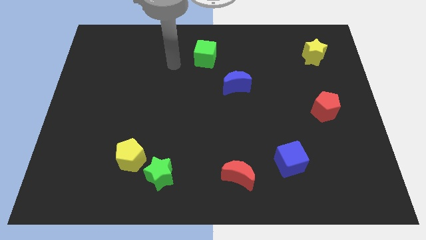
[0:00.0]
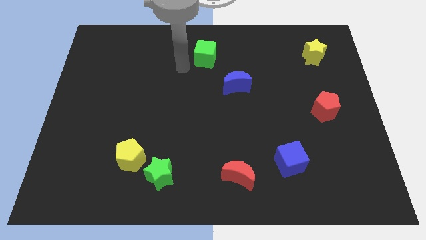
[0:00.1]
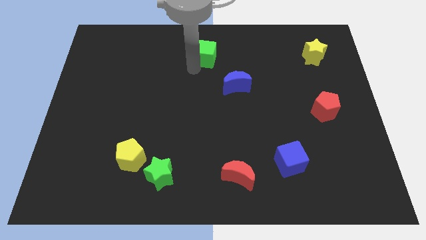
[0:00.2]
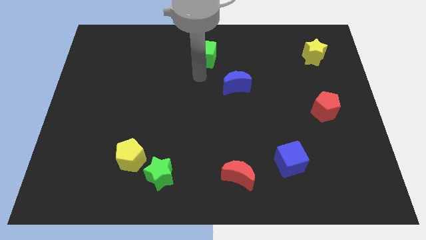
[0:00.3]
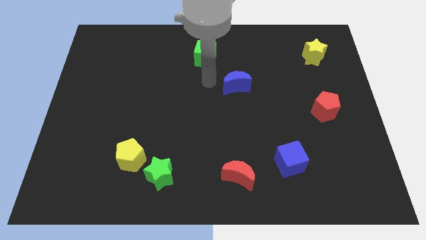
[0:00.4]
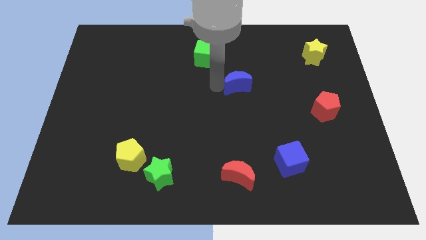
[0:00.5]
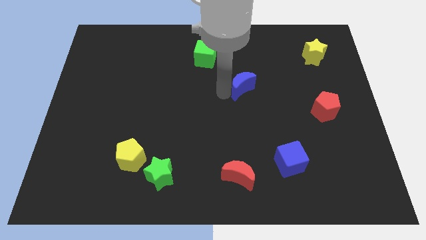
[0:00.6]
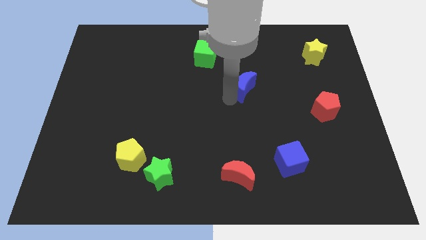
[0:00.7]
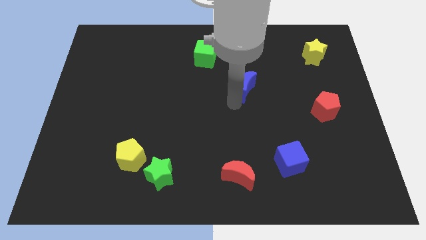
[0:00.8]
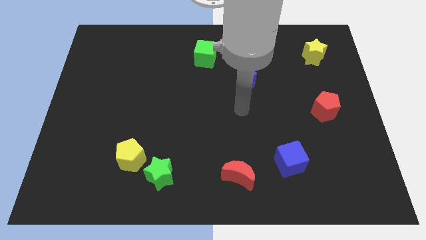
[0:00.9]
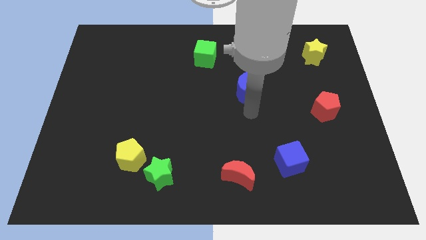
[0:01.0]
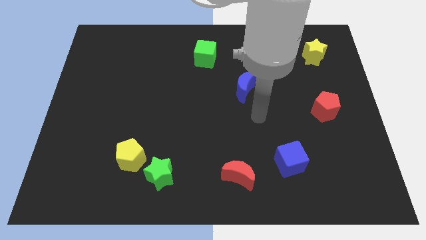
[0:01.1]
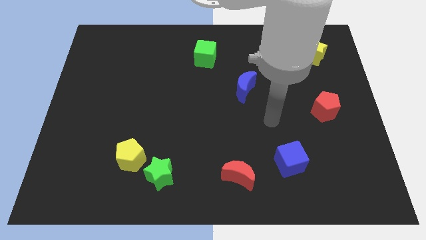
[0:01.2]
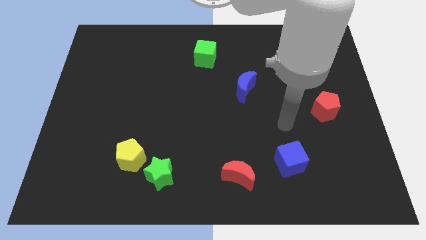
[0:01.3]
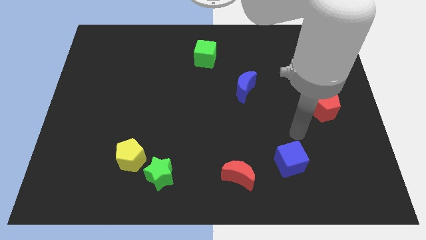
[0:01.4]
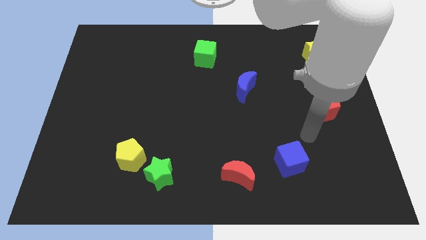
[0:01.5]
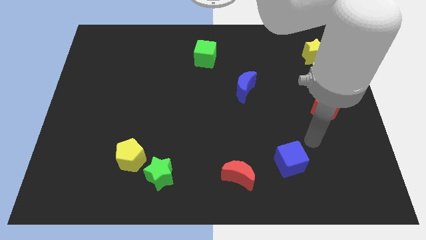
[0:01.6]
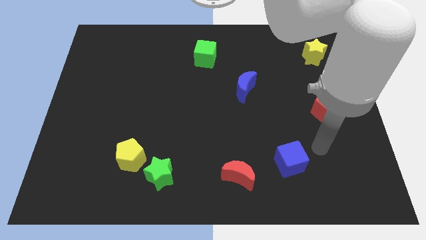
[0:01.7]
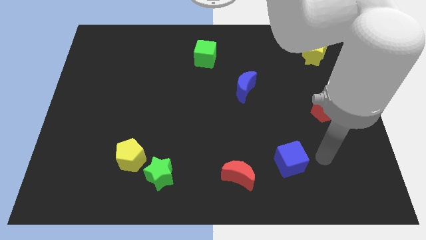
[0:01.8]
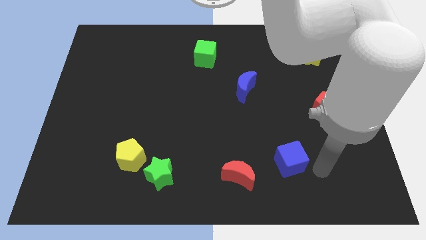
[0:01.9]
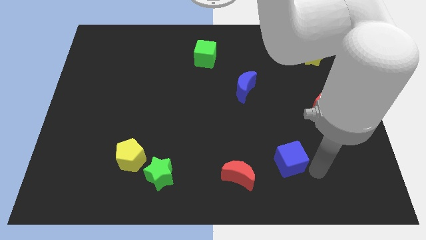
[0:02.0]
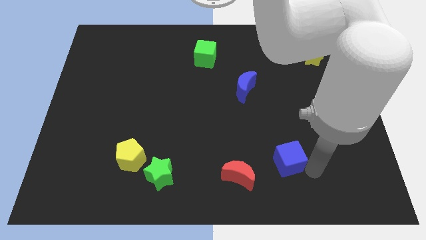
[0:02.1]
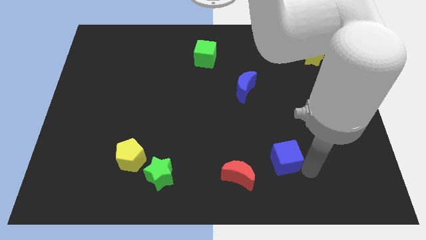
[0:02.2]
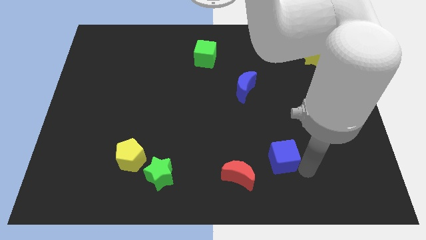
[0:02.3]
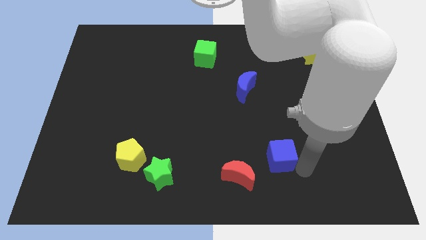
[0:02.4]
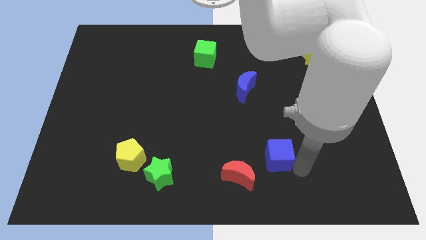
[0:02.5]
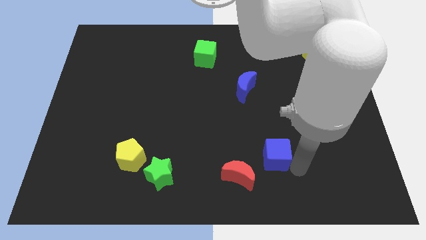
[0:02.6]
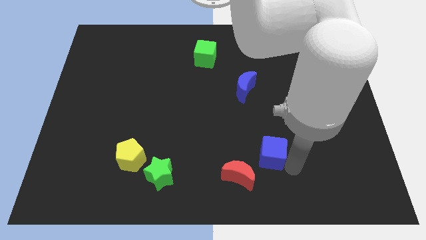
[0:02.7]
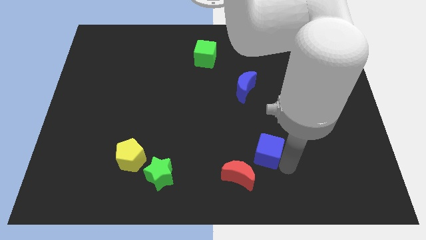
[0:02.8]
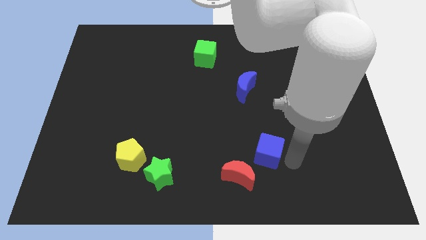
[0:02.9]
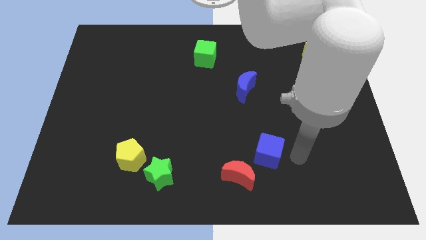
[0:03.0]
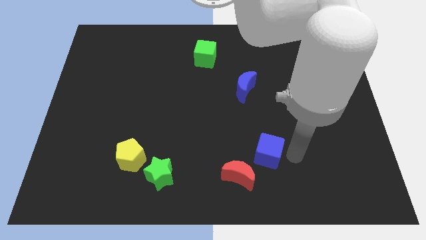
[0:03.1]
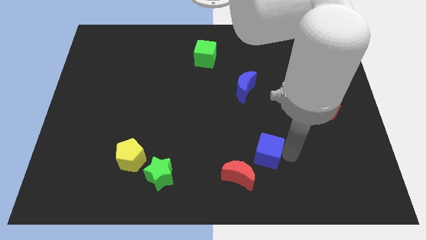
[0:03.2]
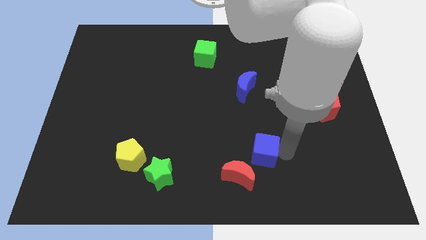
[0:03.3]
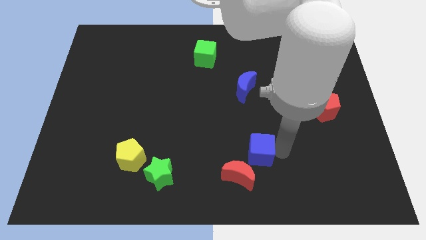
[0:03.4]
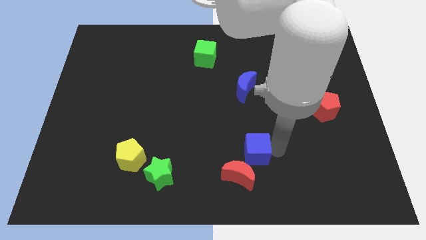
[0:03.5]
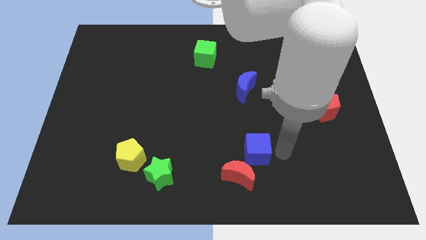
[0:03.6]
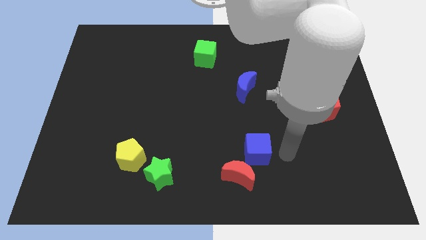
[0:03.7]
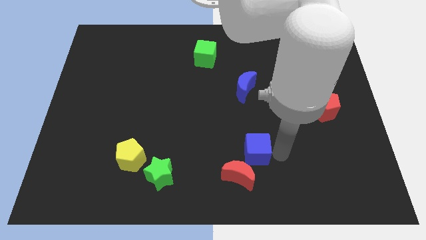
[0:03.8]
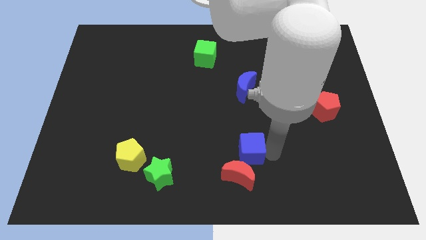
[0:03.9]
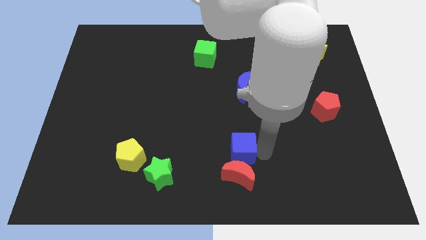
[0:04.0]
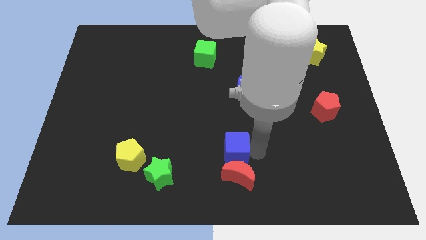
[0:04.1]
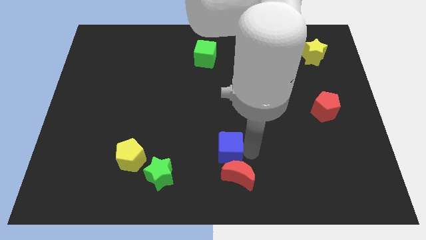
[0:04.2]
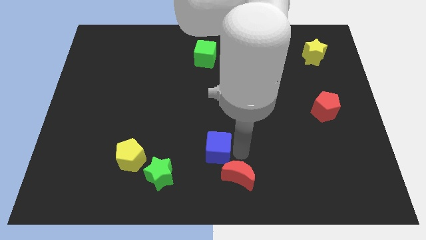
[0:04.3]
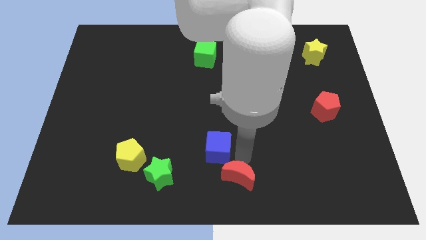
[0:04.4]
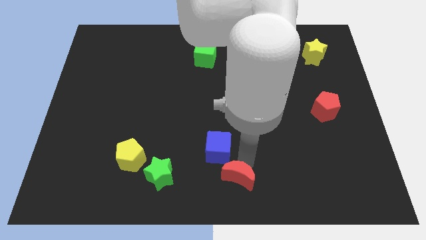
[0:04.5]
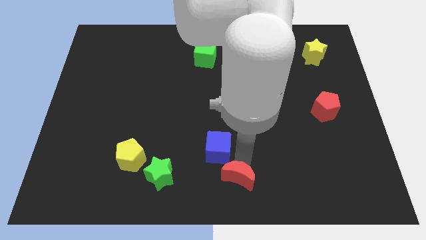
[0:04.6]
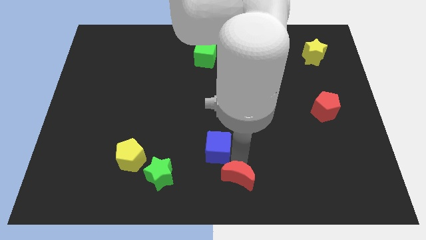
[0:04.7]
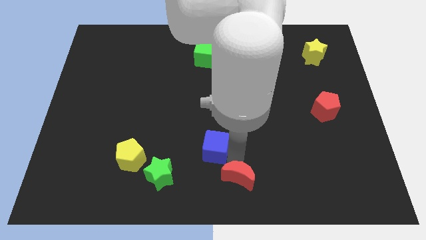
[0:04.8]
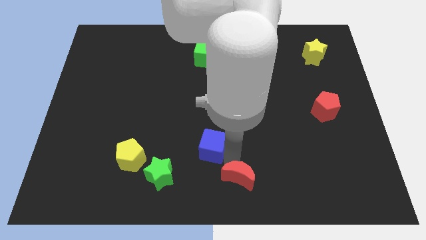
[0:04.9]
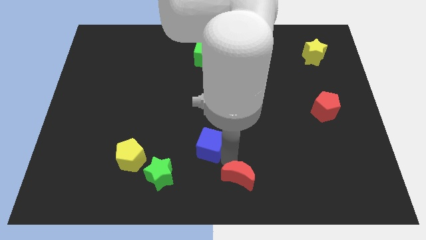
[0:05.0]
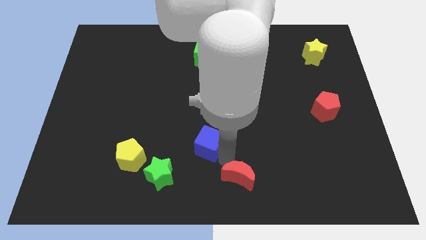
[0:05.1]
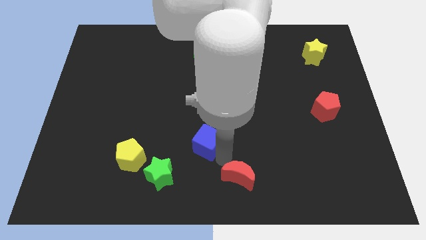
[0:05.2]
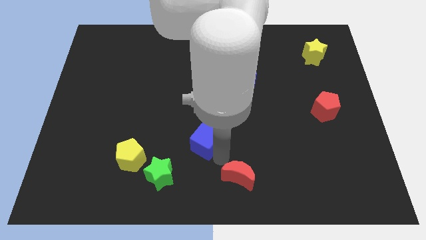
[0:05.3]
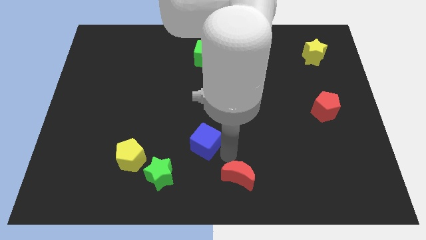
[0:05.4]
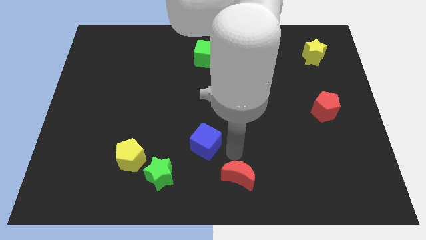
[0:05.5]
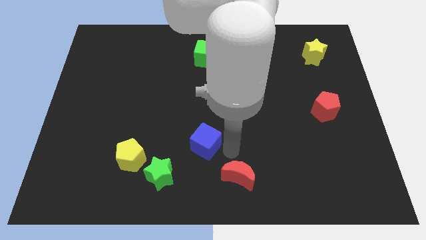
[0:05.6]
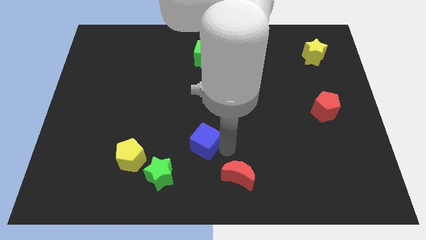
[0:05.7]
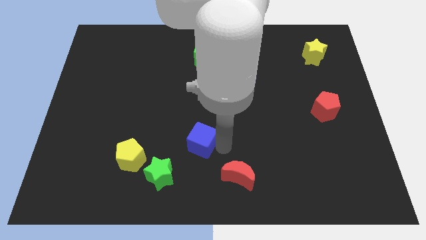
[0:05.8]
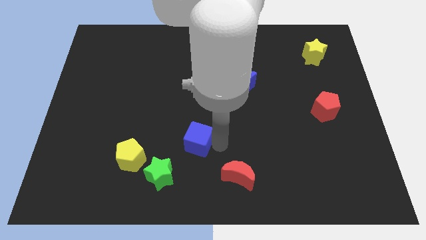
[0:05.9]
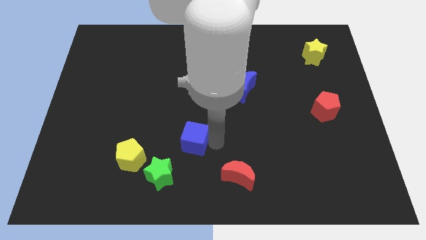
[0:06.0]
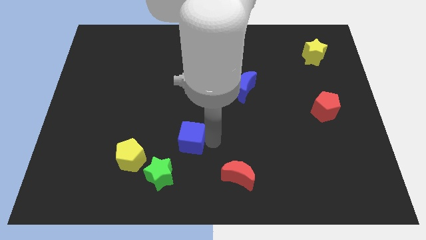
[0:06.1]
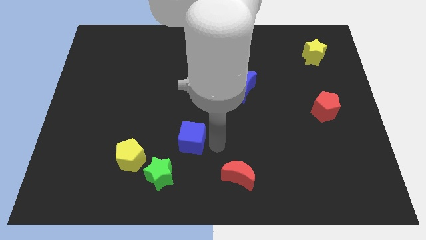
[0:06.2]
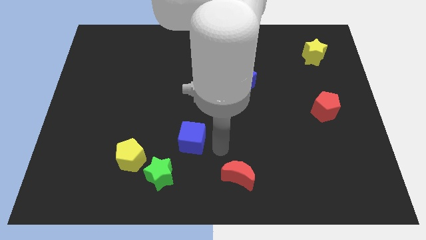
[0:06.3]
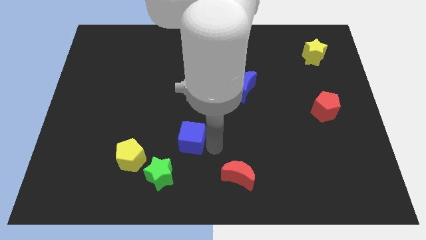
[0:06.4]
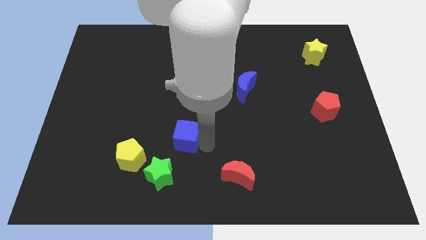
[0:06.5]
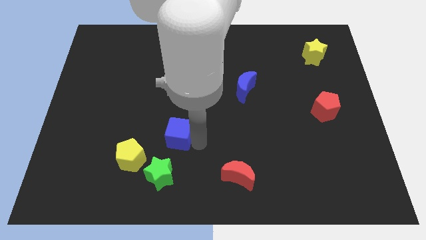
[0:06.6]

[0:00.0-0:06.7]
slide the blue cube above the green star

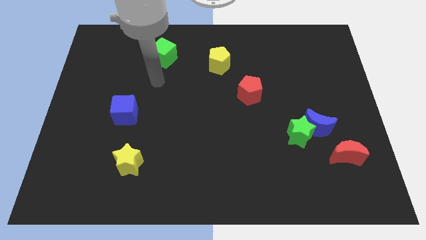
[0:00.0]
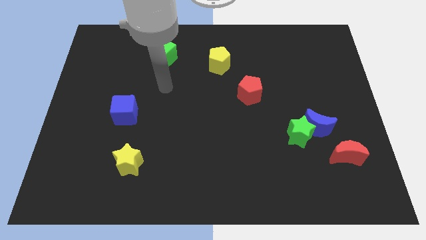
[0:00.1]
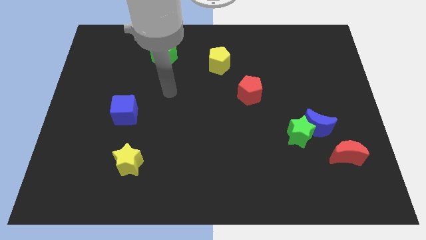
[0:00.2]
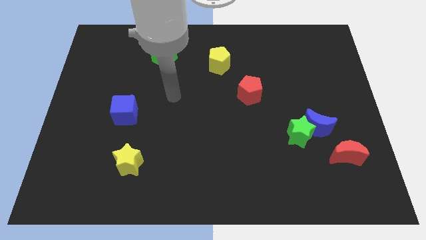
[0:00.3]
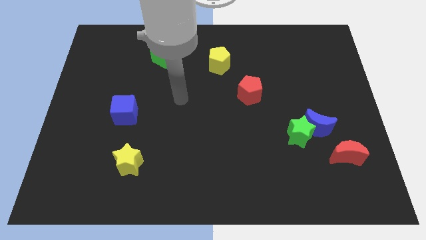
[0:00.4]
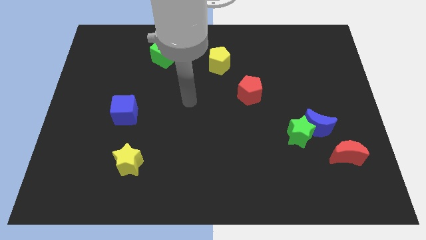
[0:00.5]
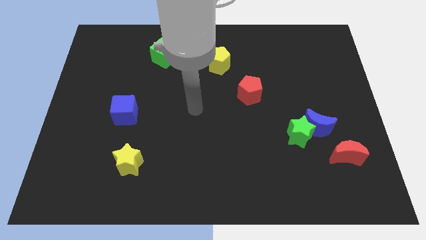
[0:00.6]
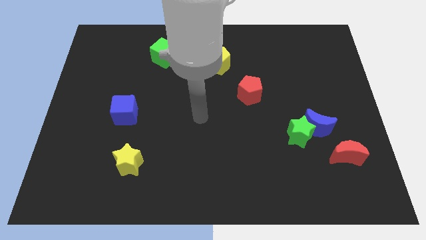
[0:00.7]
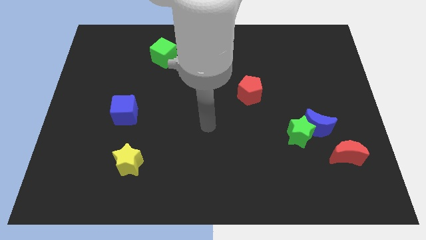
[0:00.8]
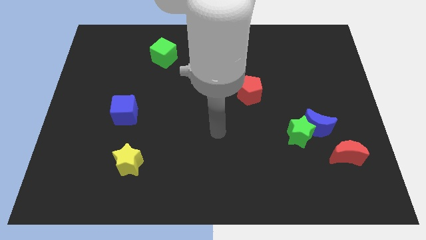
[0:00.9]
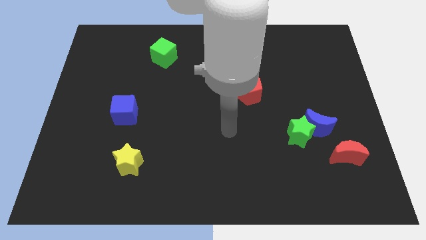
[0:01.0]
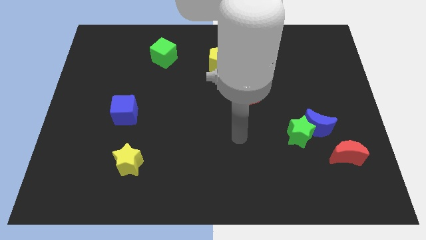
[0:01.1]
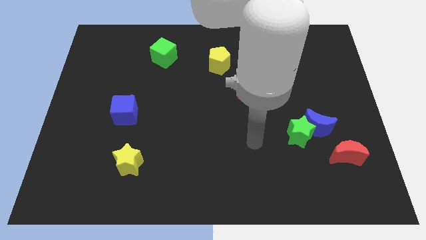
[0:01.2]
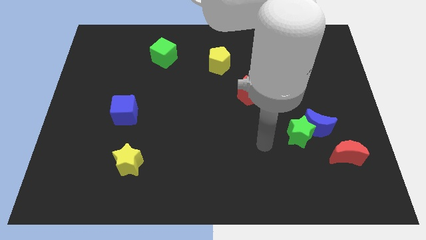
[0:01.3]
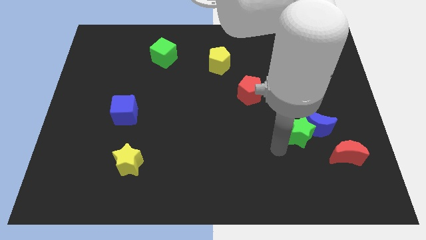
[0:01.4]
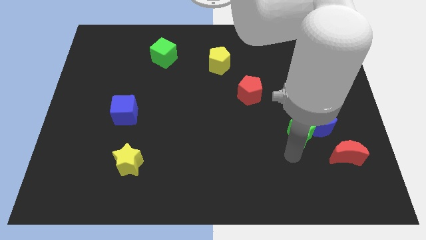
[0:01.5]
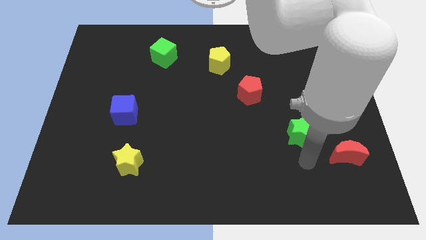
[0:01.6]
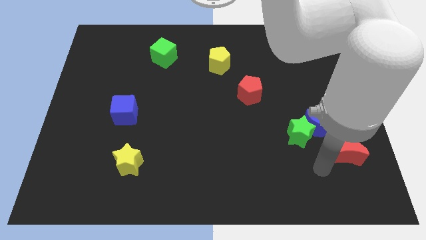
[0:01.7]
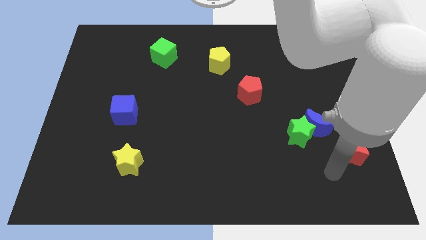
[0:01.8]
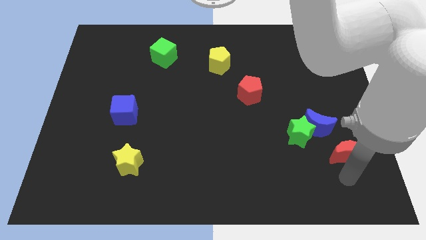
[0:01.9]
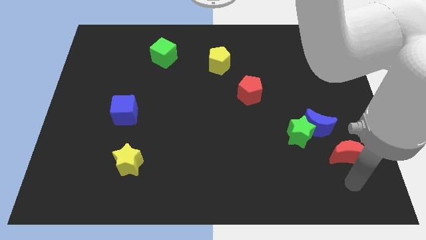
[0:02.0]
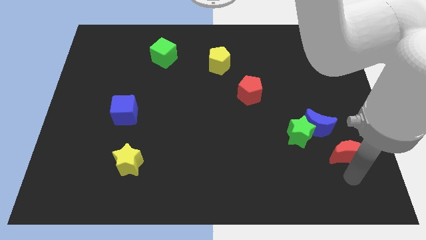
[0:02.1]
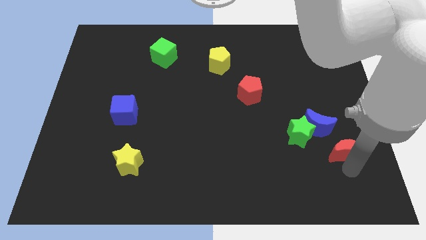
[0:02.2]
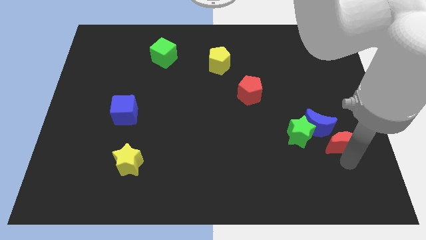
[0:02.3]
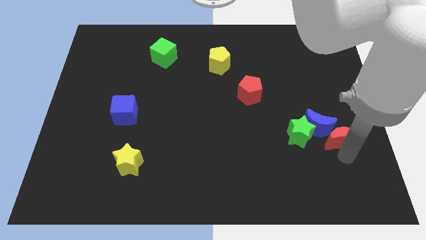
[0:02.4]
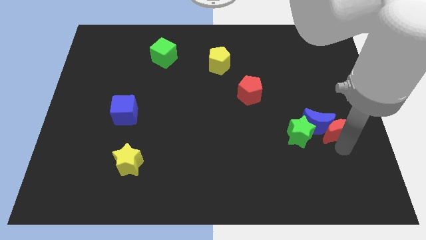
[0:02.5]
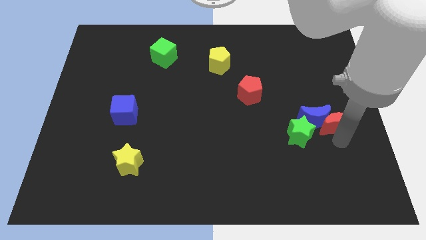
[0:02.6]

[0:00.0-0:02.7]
put the red moon to the top right side of the blue moon
